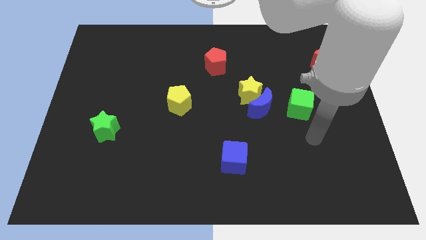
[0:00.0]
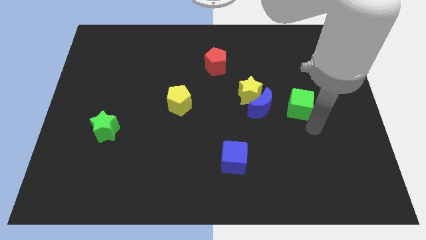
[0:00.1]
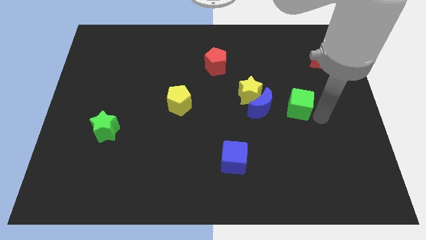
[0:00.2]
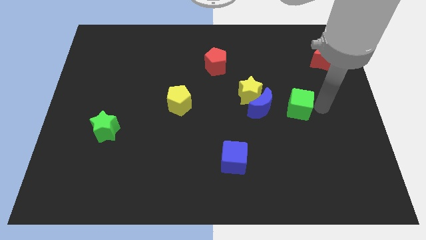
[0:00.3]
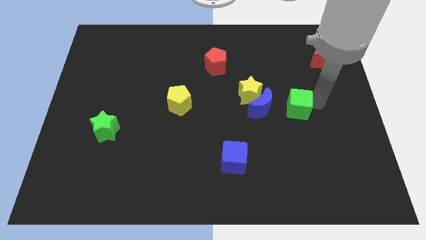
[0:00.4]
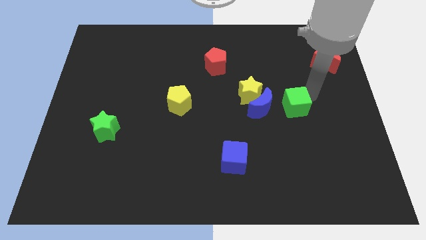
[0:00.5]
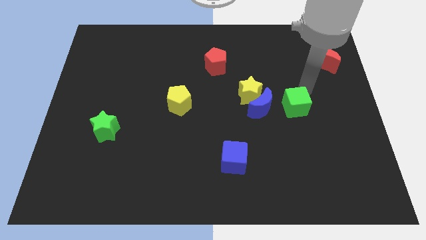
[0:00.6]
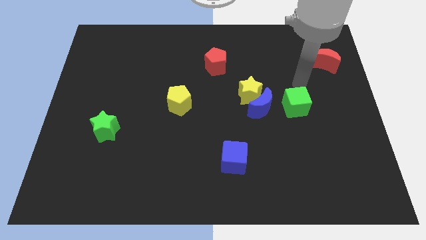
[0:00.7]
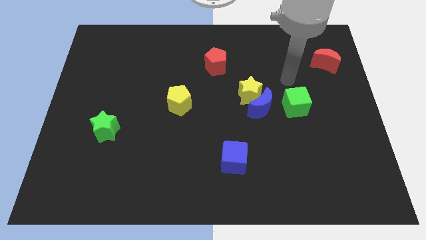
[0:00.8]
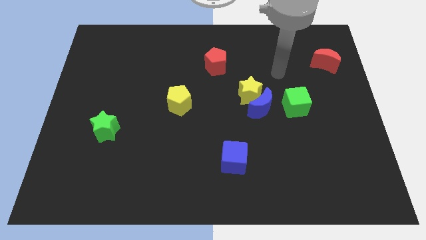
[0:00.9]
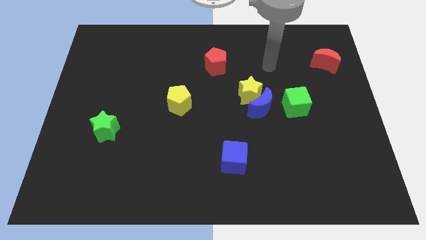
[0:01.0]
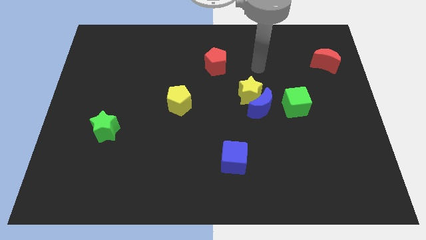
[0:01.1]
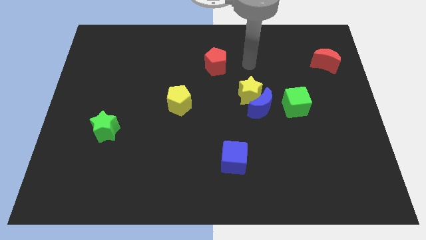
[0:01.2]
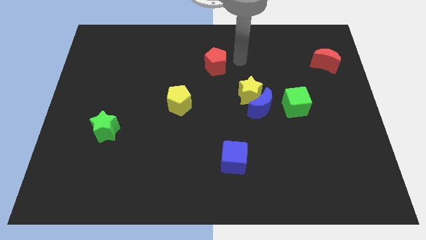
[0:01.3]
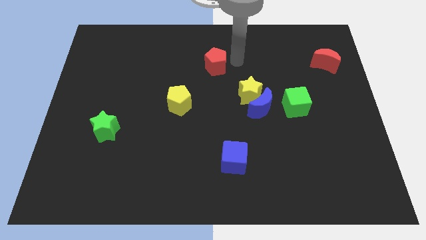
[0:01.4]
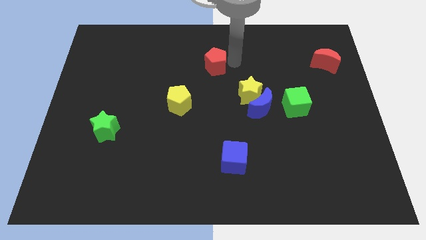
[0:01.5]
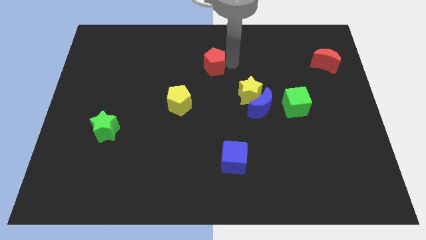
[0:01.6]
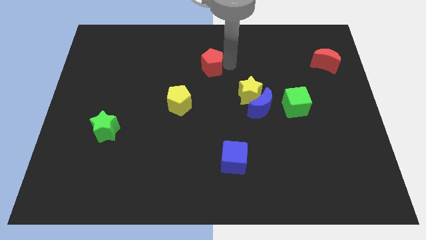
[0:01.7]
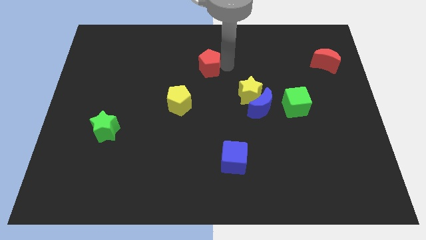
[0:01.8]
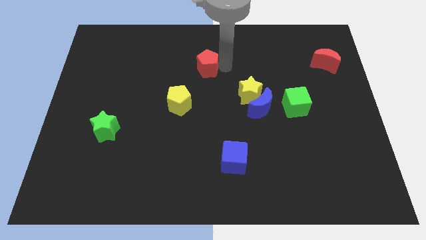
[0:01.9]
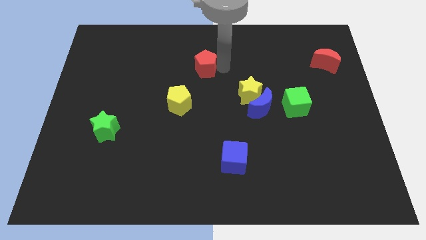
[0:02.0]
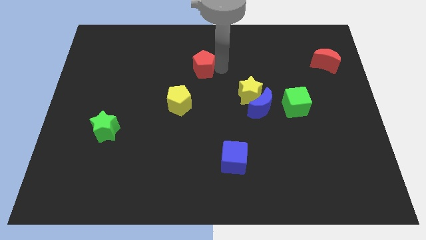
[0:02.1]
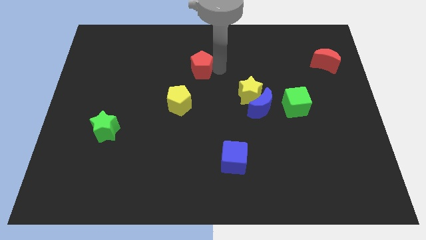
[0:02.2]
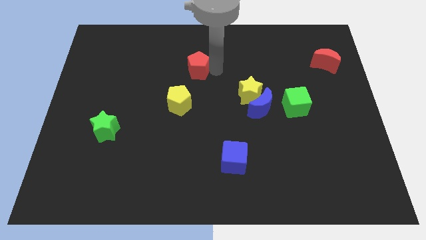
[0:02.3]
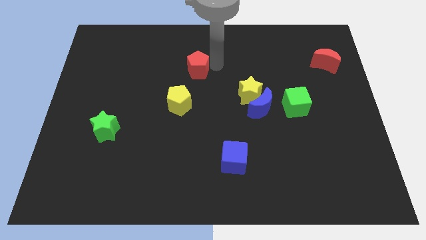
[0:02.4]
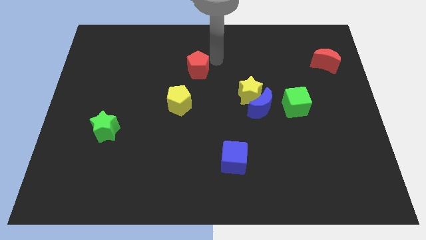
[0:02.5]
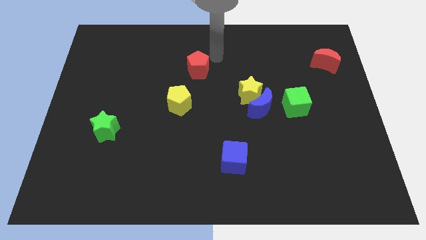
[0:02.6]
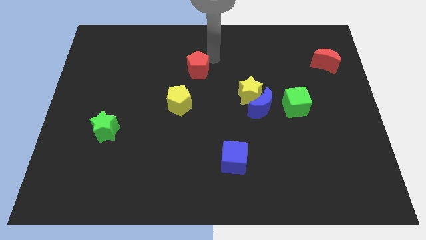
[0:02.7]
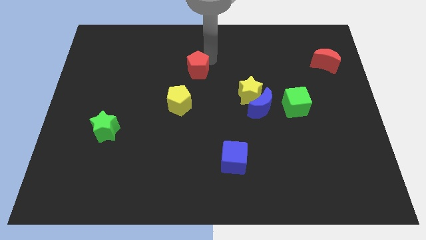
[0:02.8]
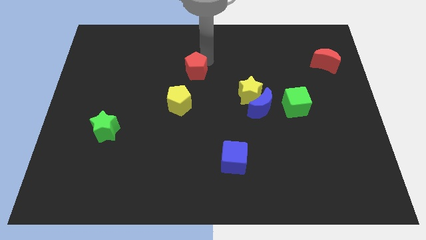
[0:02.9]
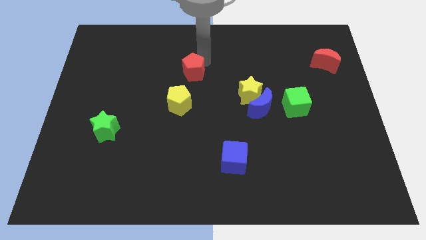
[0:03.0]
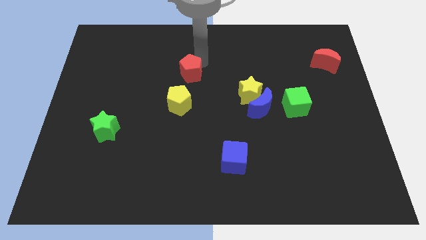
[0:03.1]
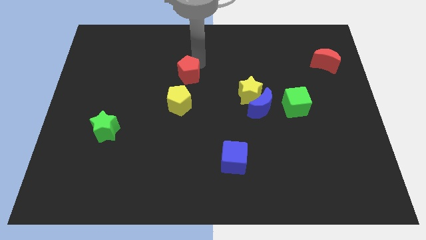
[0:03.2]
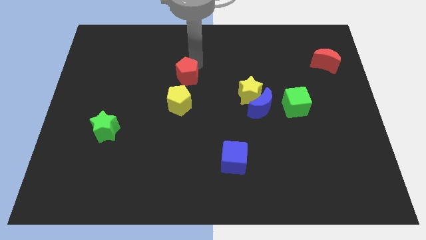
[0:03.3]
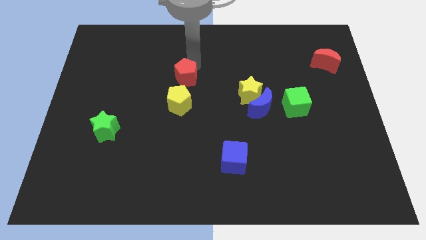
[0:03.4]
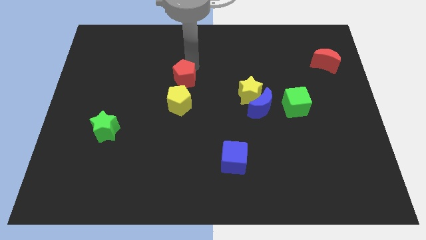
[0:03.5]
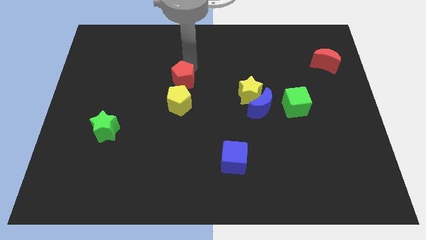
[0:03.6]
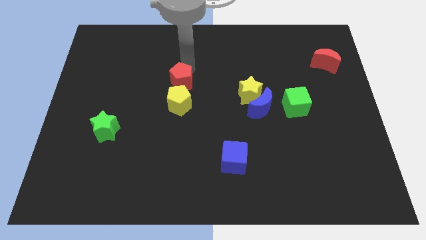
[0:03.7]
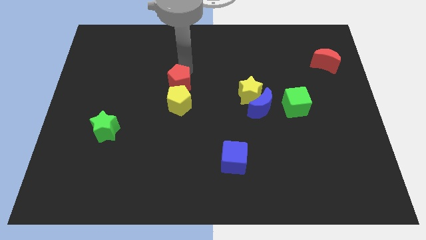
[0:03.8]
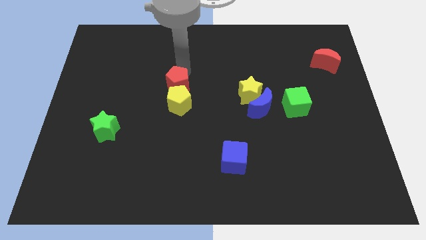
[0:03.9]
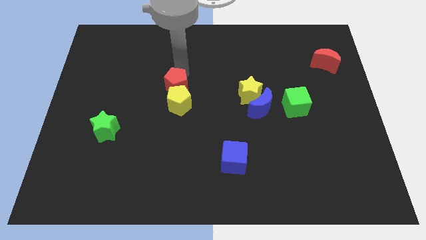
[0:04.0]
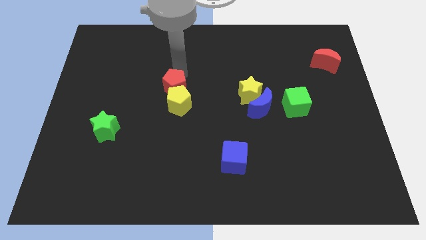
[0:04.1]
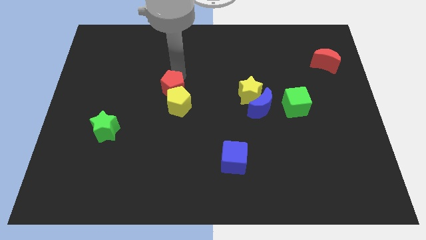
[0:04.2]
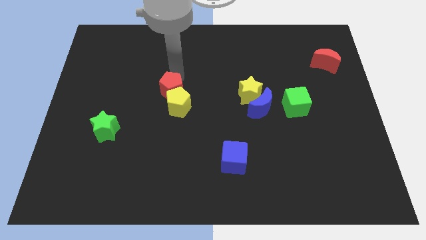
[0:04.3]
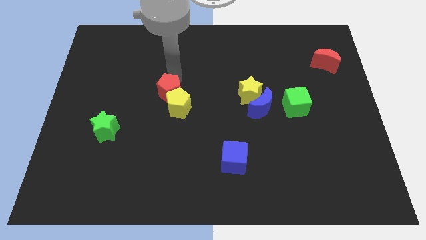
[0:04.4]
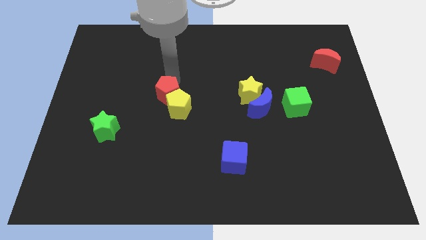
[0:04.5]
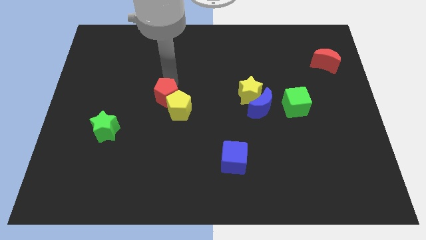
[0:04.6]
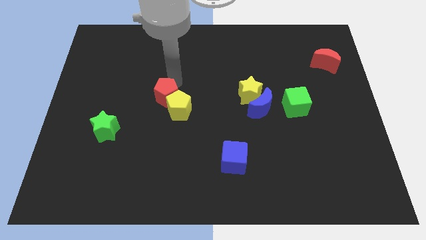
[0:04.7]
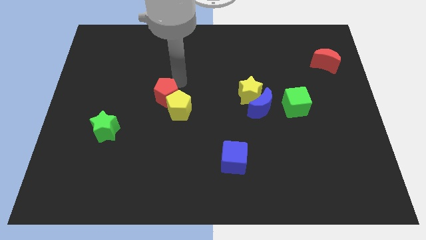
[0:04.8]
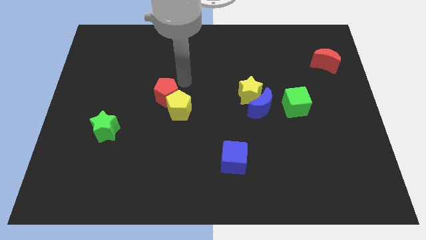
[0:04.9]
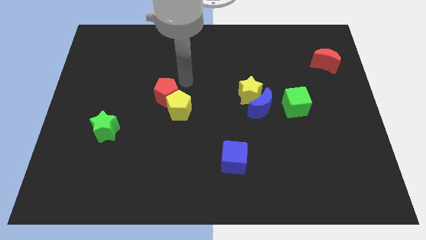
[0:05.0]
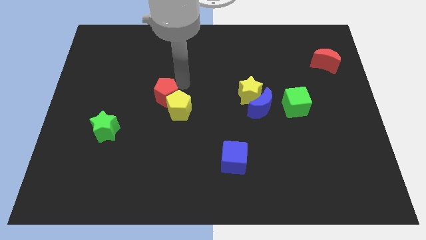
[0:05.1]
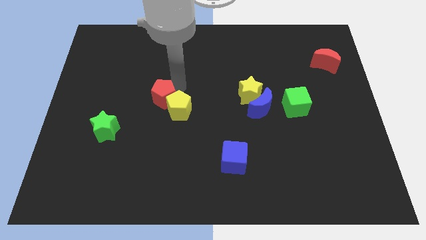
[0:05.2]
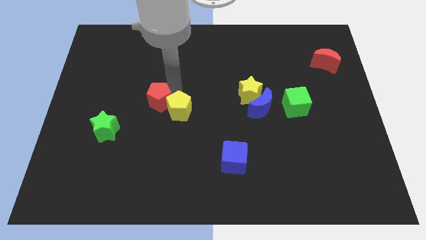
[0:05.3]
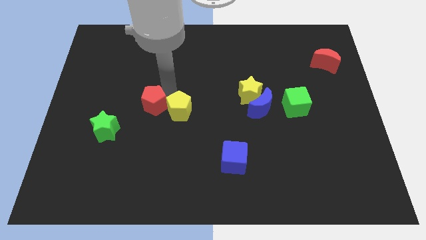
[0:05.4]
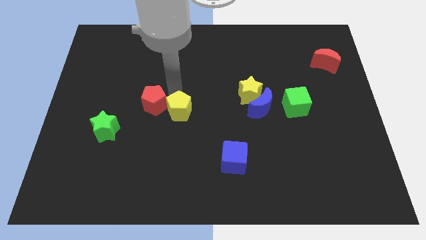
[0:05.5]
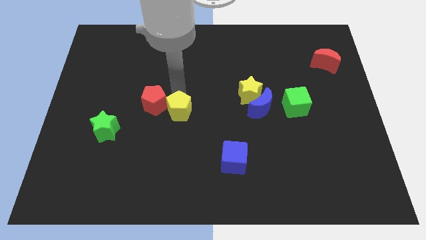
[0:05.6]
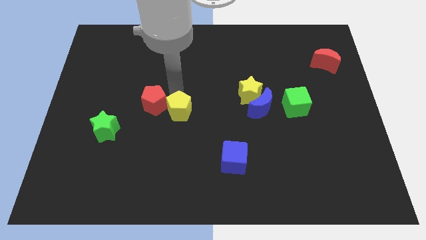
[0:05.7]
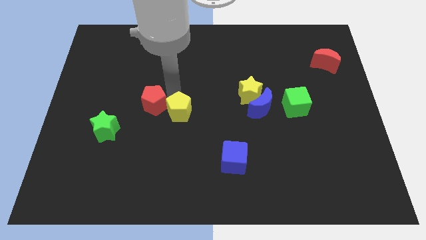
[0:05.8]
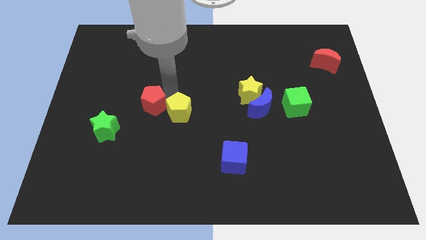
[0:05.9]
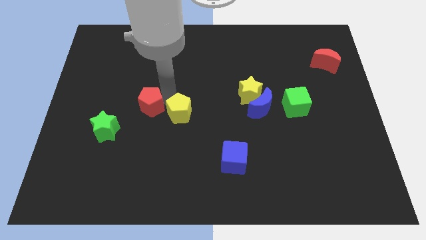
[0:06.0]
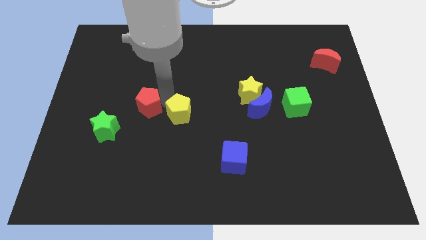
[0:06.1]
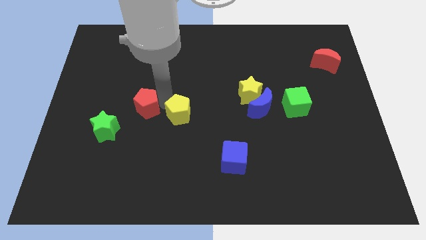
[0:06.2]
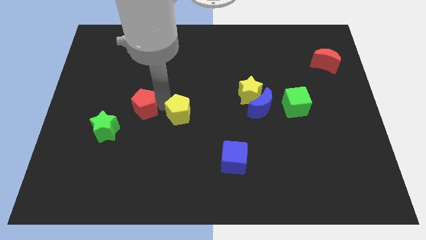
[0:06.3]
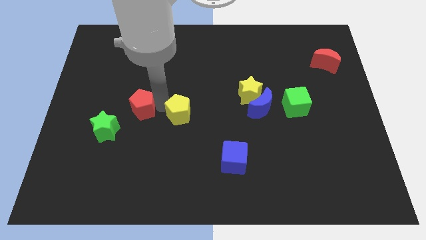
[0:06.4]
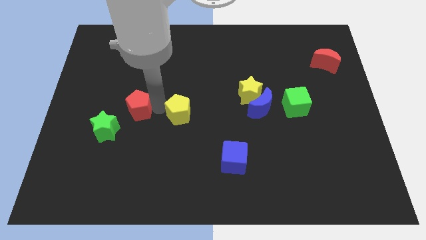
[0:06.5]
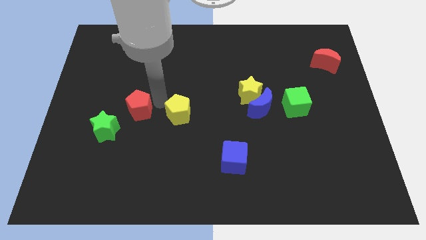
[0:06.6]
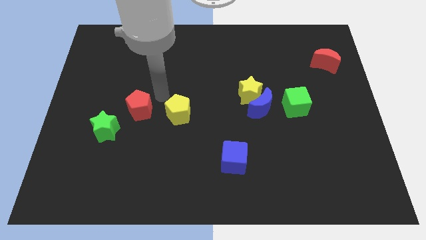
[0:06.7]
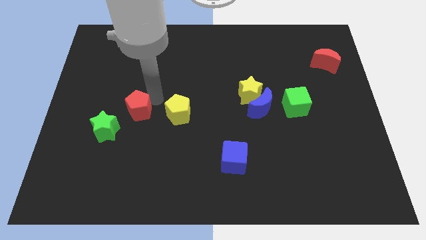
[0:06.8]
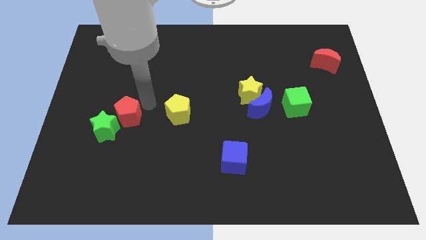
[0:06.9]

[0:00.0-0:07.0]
move the red pentagon towards the green star

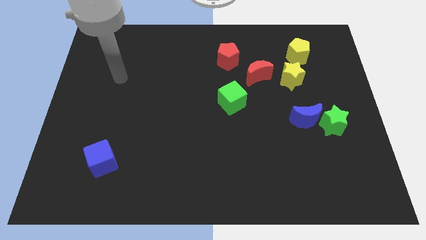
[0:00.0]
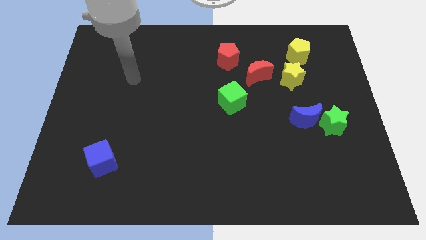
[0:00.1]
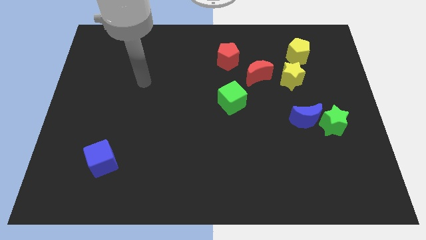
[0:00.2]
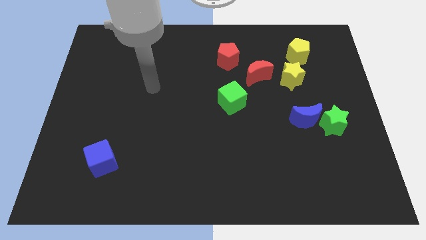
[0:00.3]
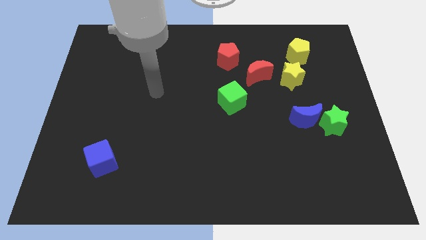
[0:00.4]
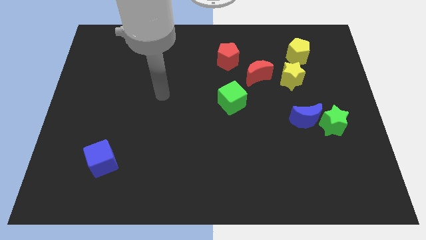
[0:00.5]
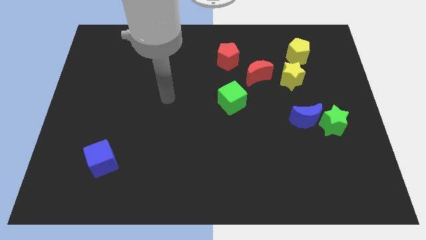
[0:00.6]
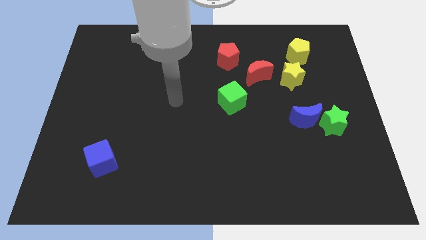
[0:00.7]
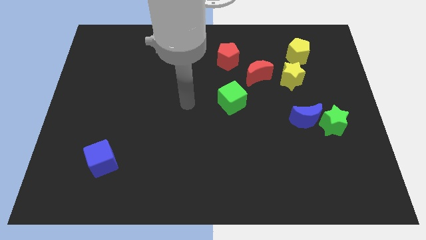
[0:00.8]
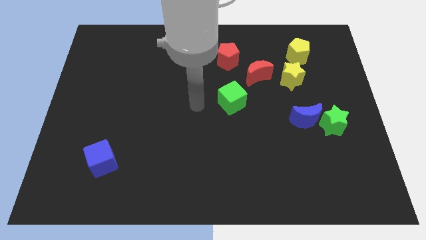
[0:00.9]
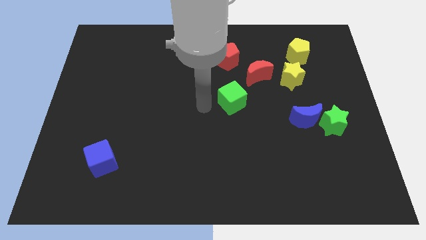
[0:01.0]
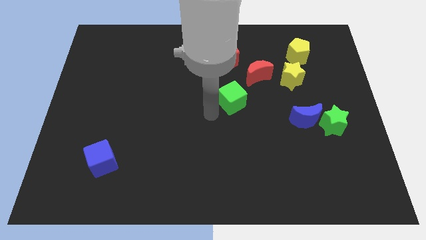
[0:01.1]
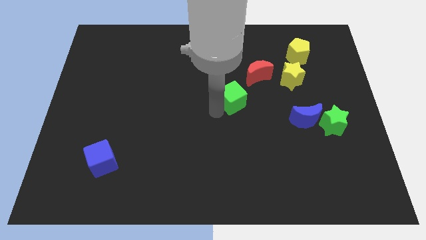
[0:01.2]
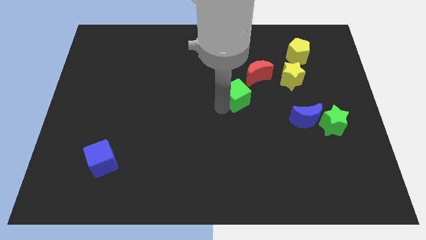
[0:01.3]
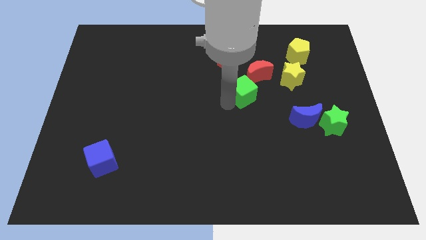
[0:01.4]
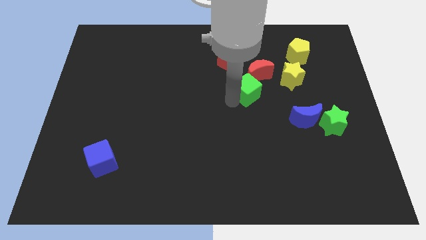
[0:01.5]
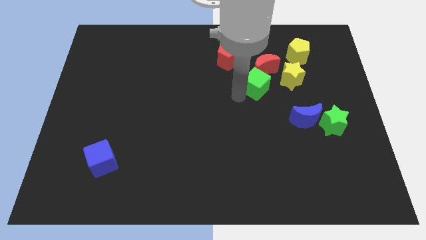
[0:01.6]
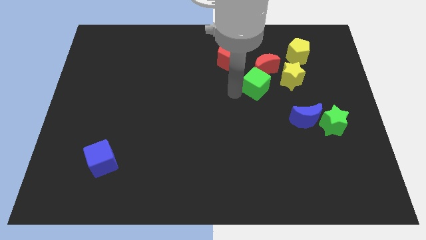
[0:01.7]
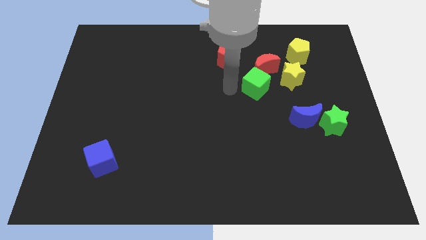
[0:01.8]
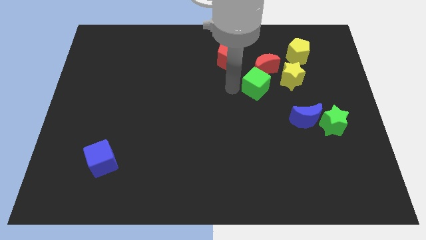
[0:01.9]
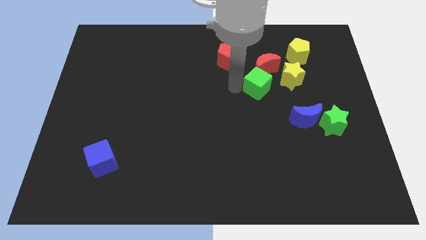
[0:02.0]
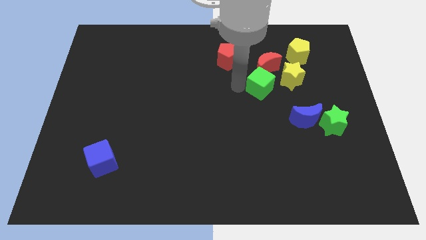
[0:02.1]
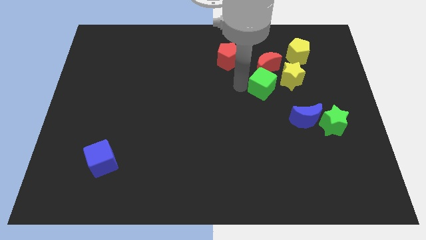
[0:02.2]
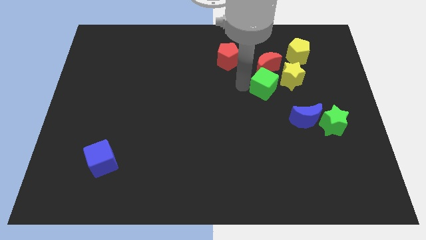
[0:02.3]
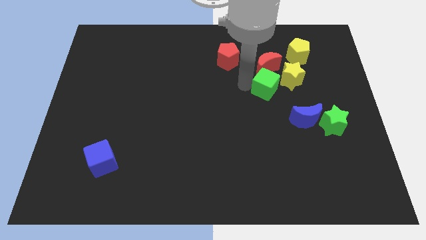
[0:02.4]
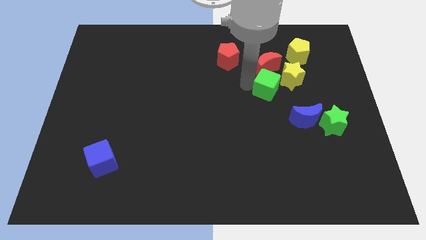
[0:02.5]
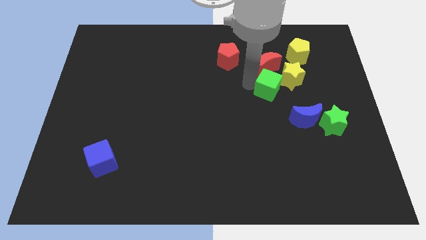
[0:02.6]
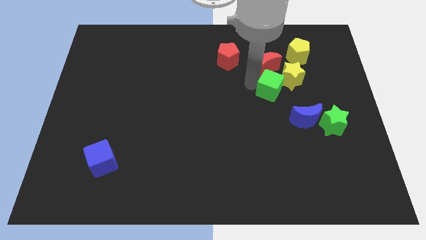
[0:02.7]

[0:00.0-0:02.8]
put the green cube next to the yellow star
